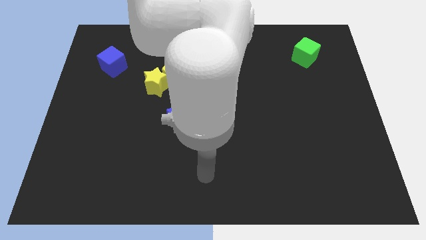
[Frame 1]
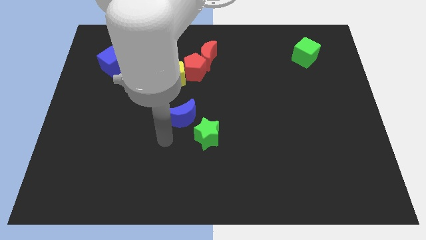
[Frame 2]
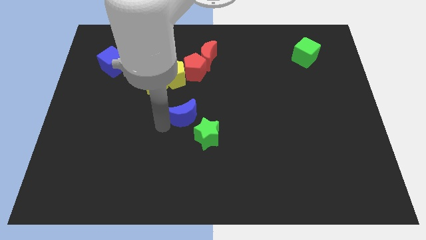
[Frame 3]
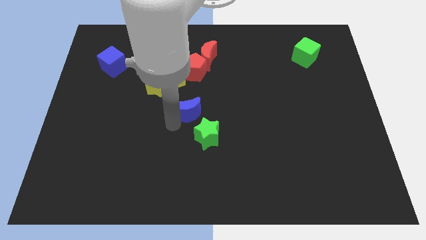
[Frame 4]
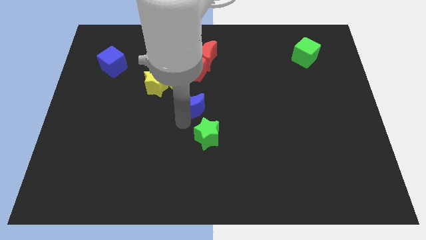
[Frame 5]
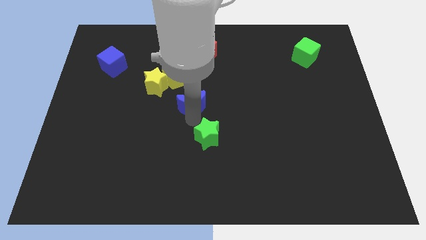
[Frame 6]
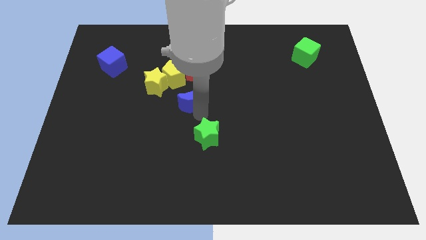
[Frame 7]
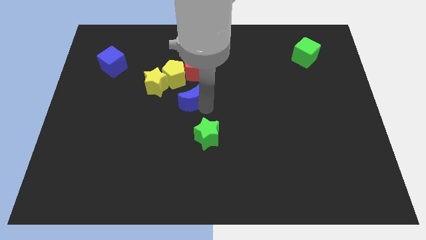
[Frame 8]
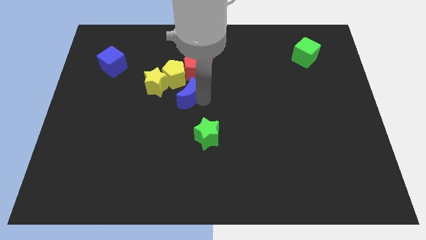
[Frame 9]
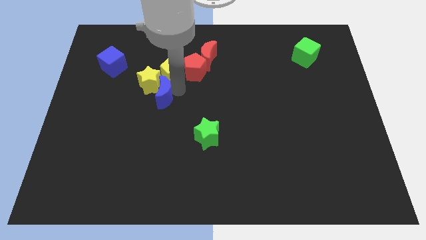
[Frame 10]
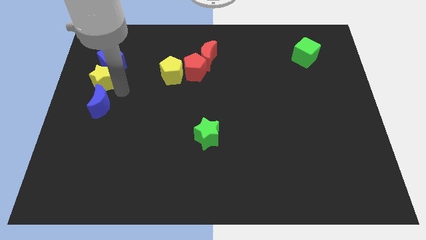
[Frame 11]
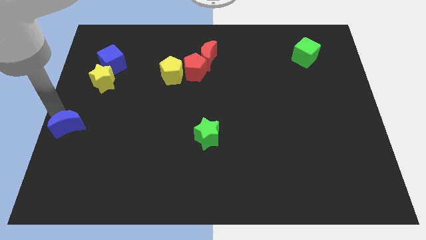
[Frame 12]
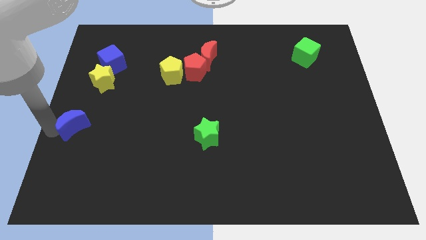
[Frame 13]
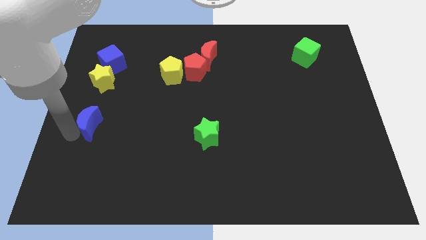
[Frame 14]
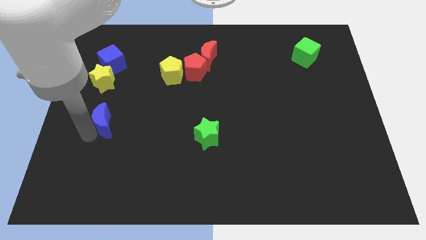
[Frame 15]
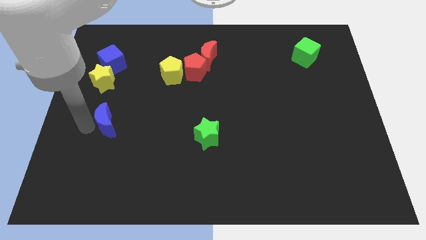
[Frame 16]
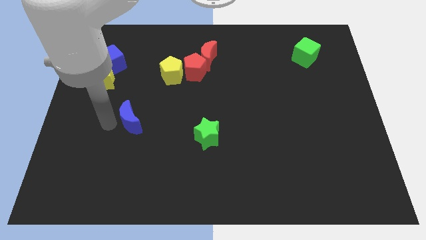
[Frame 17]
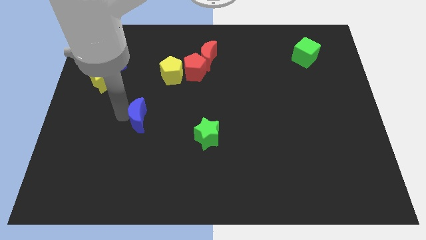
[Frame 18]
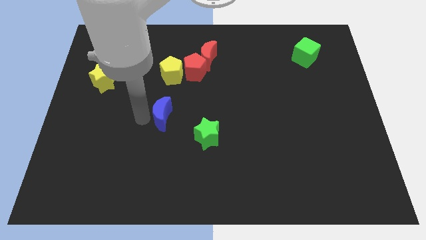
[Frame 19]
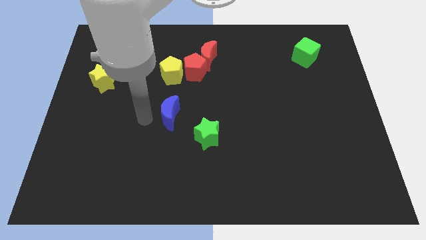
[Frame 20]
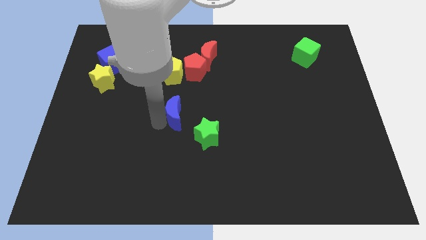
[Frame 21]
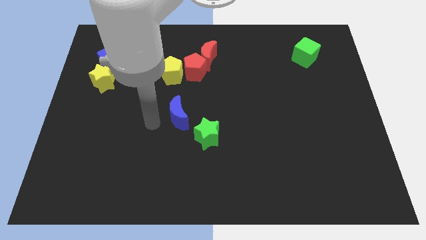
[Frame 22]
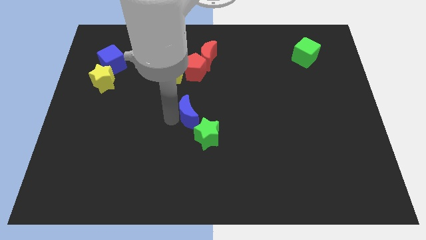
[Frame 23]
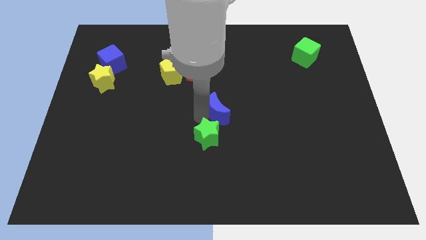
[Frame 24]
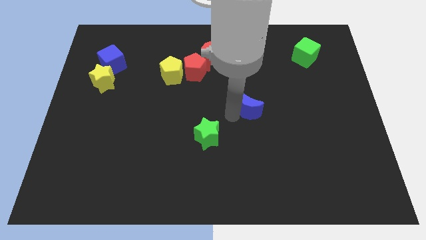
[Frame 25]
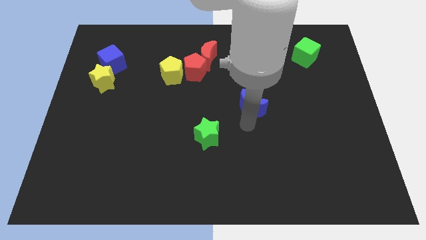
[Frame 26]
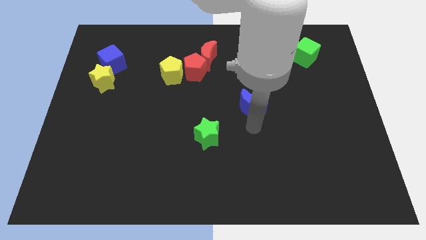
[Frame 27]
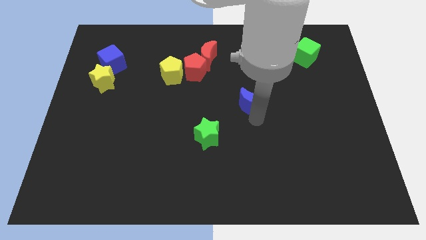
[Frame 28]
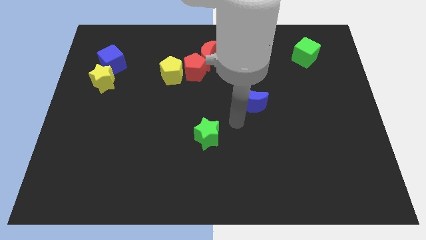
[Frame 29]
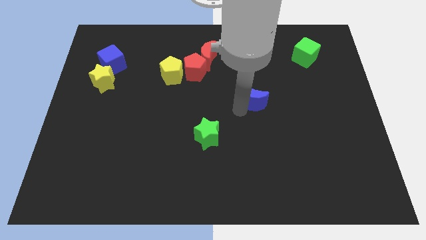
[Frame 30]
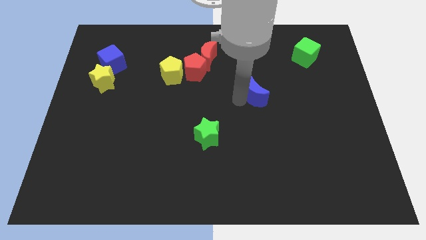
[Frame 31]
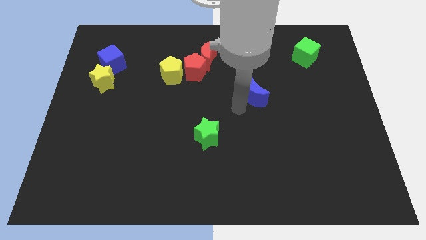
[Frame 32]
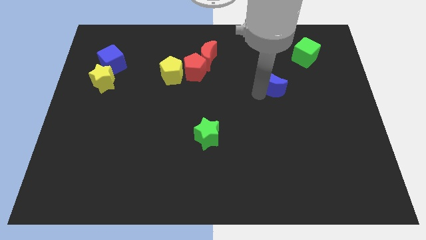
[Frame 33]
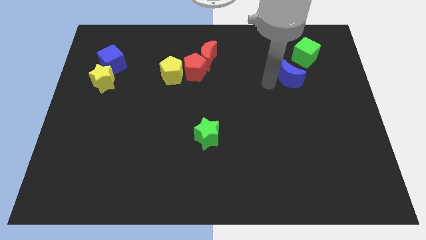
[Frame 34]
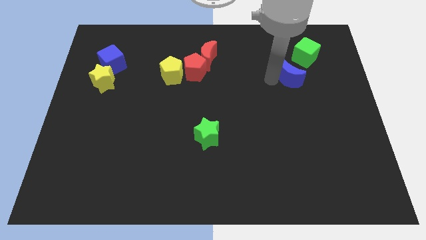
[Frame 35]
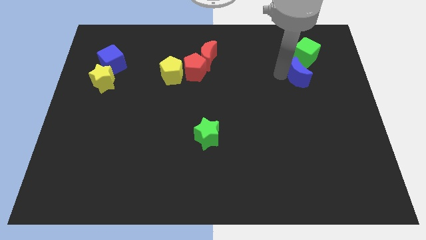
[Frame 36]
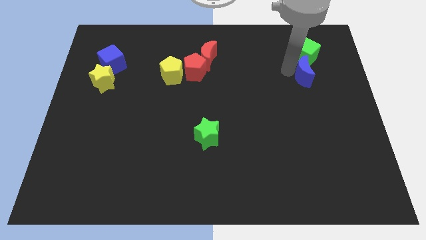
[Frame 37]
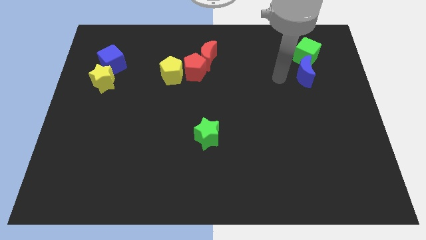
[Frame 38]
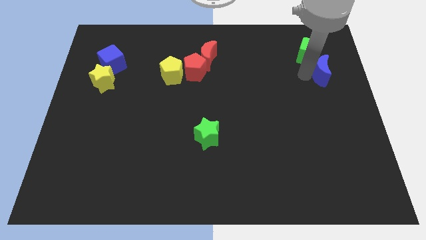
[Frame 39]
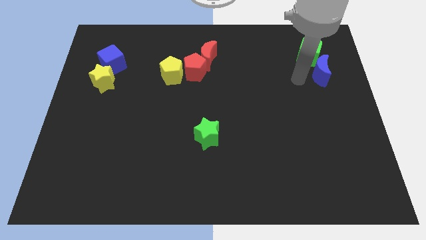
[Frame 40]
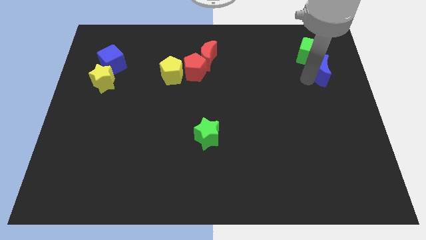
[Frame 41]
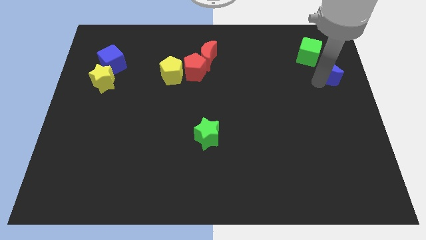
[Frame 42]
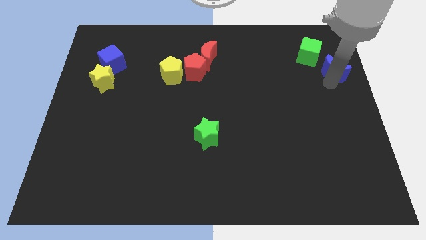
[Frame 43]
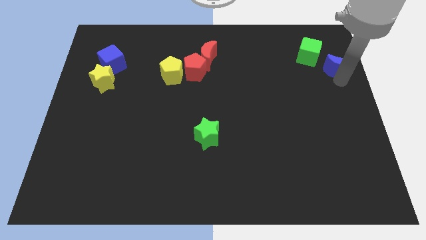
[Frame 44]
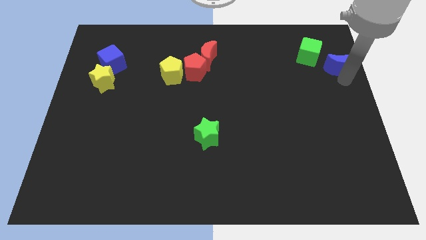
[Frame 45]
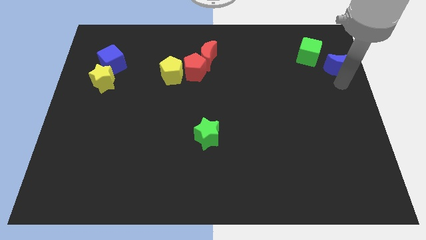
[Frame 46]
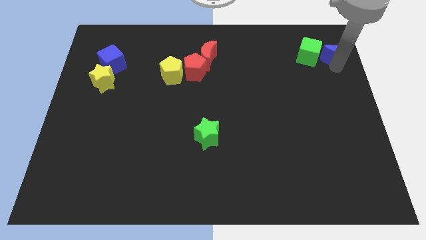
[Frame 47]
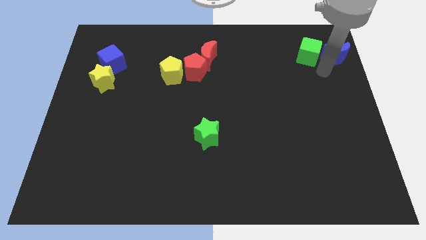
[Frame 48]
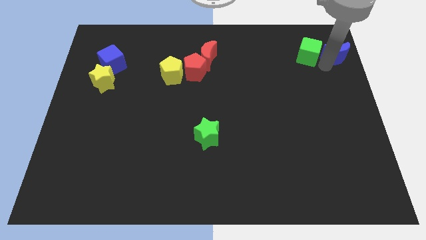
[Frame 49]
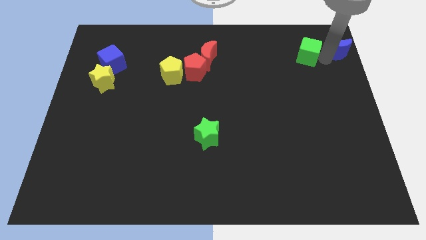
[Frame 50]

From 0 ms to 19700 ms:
slide the blue moon to the upper right corner

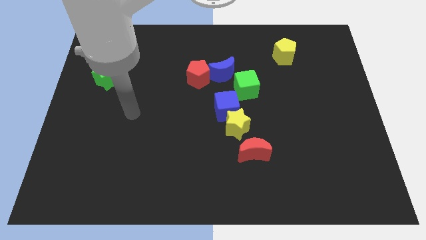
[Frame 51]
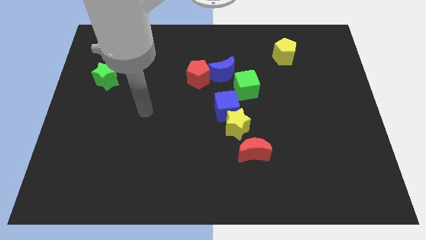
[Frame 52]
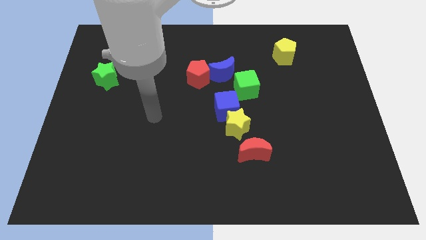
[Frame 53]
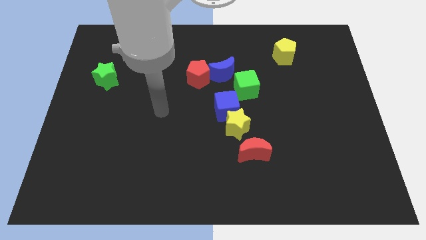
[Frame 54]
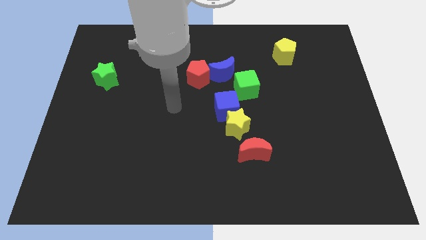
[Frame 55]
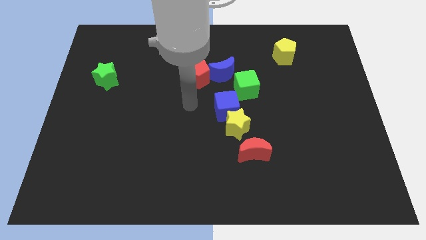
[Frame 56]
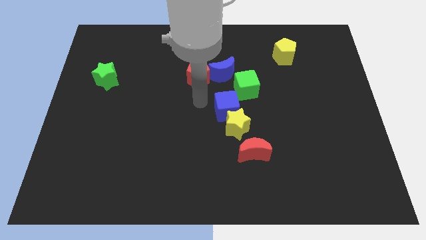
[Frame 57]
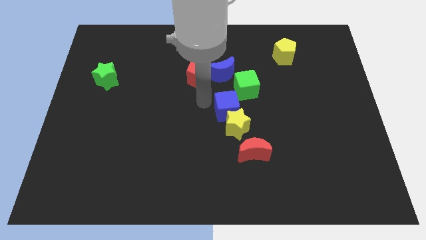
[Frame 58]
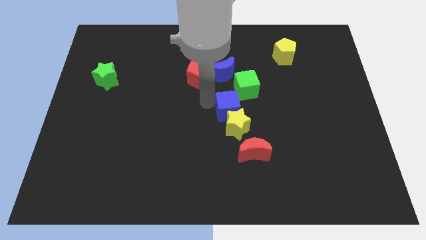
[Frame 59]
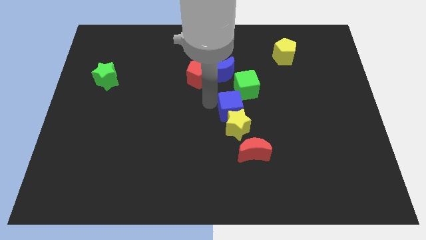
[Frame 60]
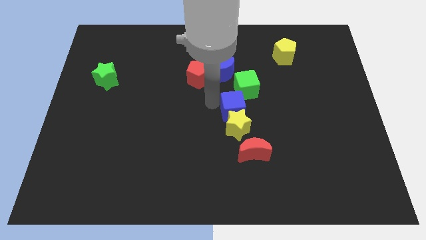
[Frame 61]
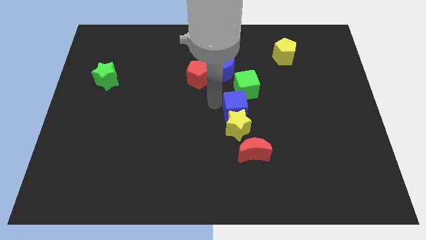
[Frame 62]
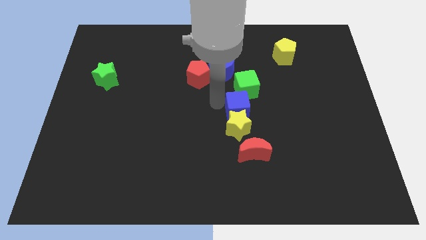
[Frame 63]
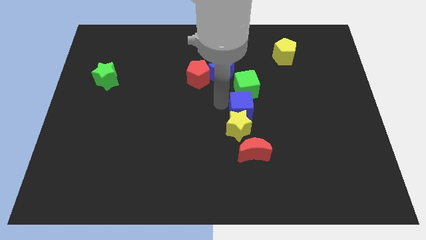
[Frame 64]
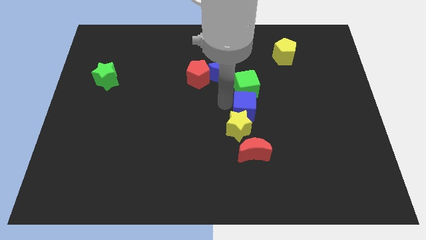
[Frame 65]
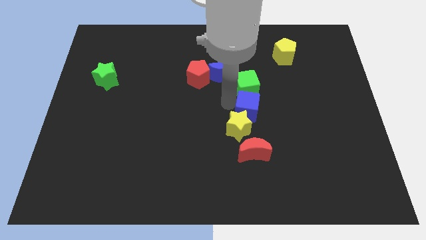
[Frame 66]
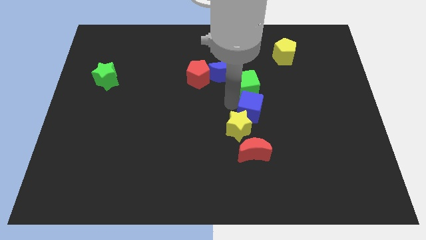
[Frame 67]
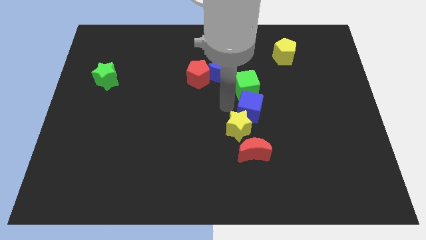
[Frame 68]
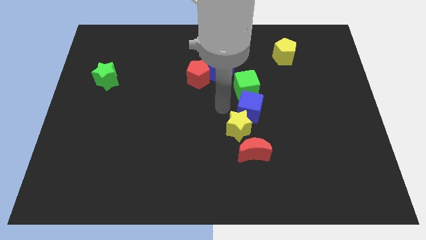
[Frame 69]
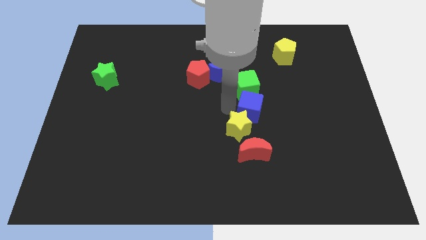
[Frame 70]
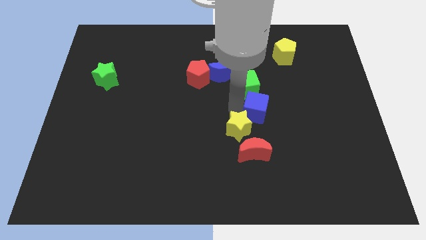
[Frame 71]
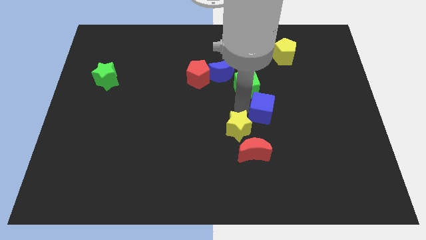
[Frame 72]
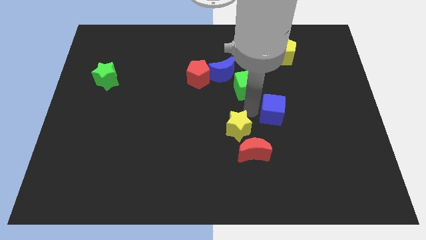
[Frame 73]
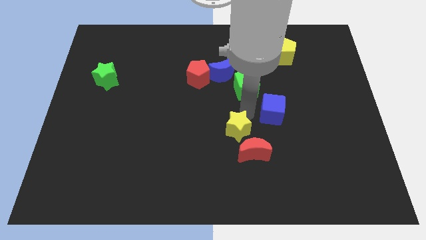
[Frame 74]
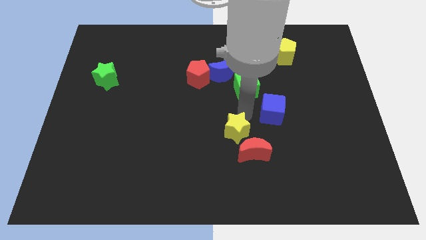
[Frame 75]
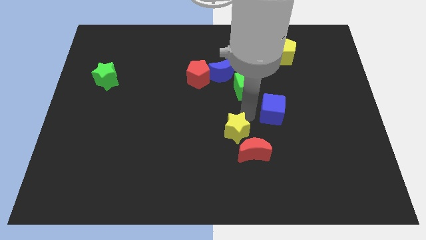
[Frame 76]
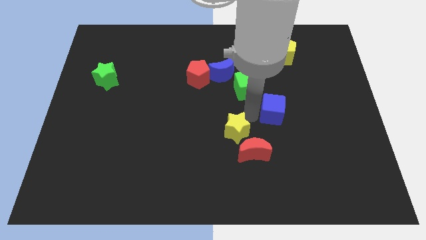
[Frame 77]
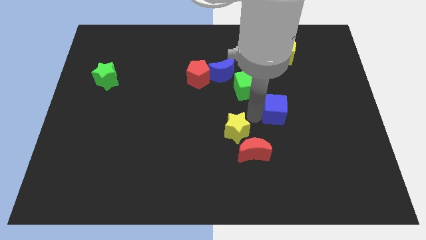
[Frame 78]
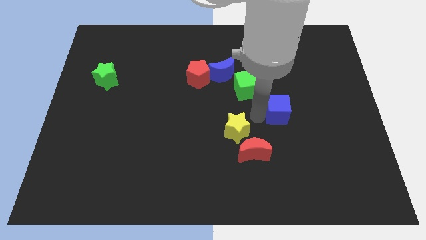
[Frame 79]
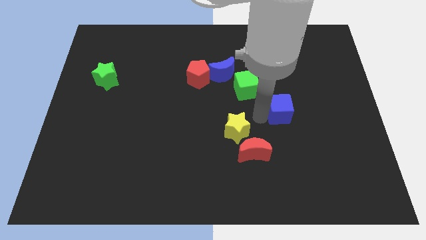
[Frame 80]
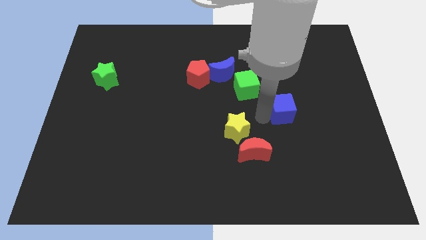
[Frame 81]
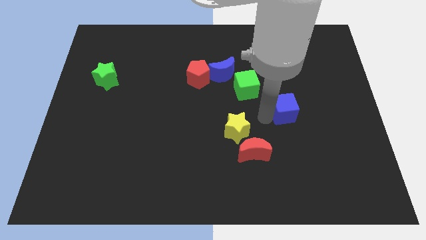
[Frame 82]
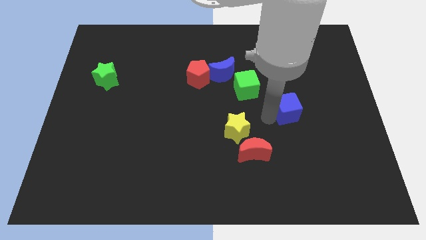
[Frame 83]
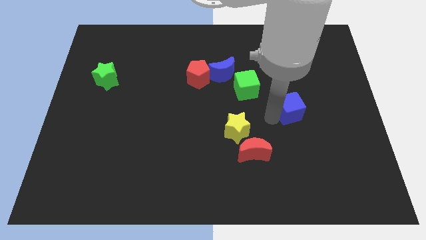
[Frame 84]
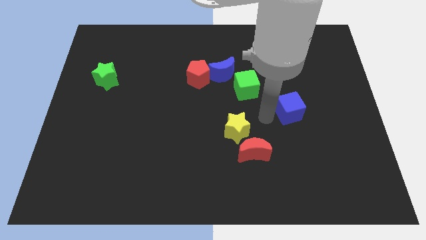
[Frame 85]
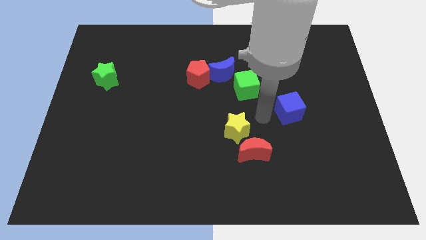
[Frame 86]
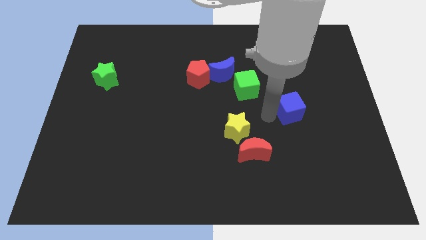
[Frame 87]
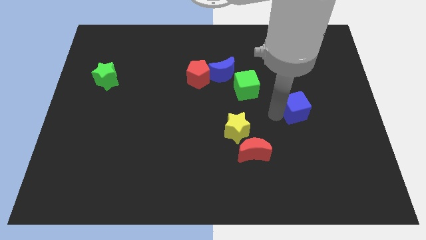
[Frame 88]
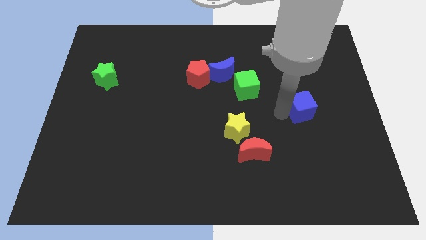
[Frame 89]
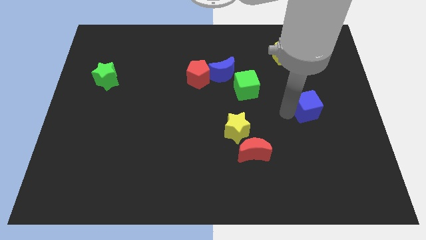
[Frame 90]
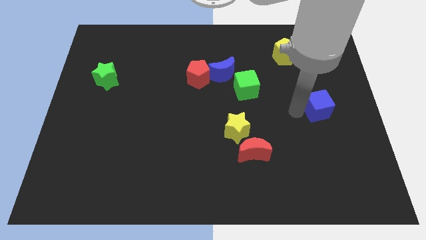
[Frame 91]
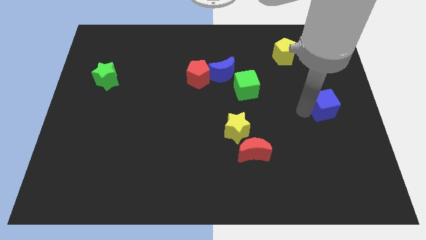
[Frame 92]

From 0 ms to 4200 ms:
push the blue cube to the right side of the board
